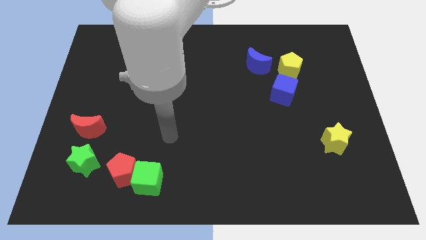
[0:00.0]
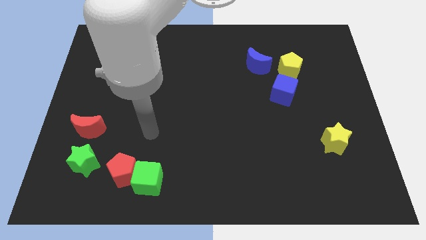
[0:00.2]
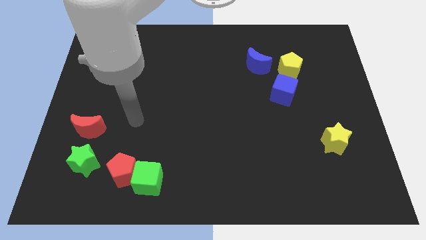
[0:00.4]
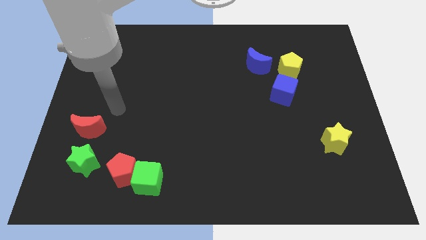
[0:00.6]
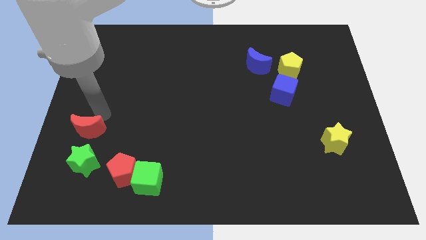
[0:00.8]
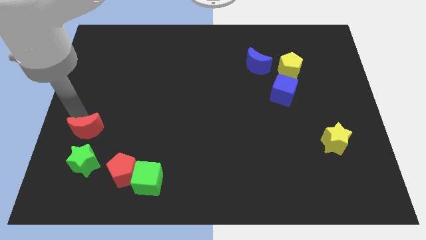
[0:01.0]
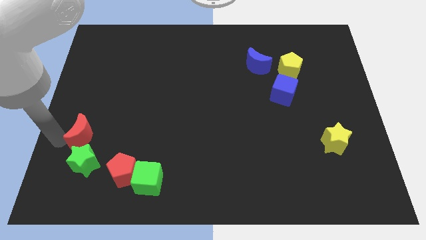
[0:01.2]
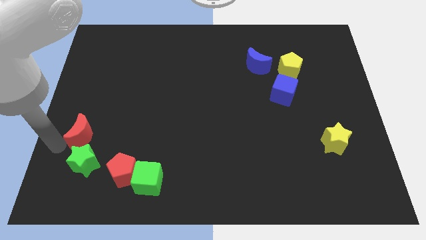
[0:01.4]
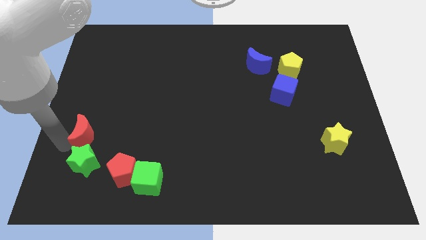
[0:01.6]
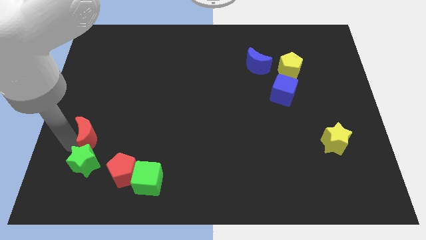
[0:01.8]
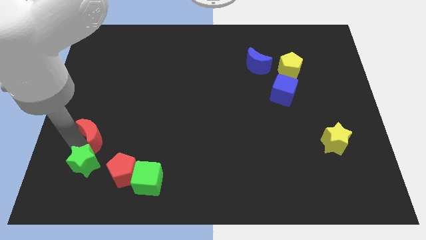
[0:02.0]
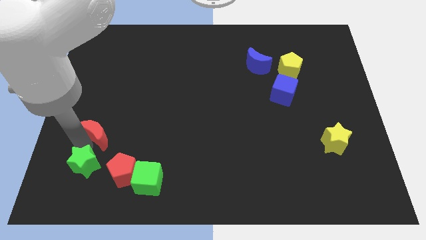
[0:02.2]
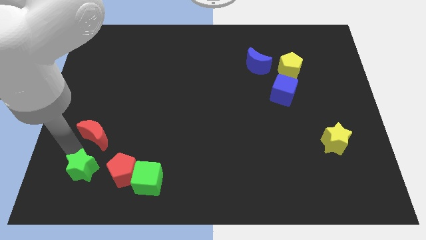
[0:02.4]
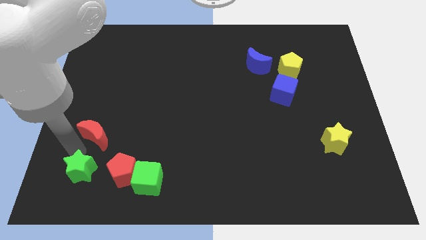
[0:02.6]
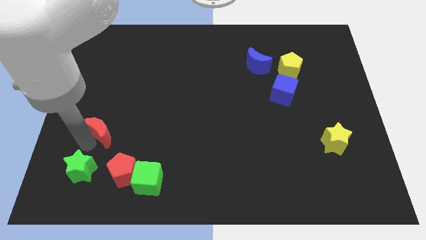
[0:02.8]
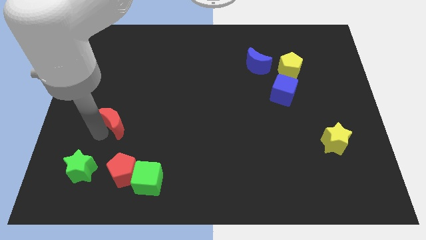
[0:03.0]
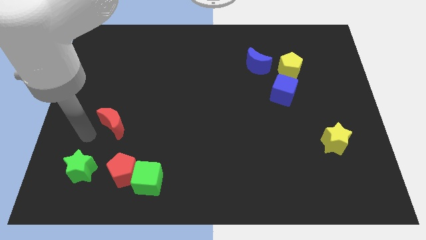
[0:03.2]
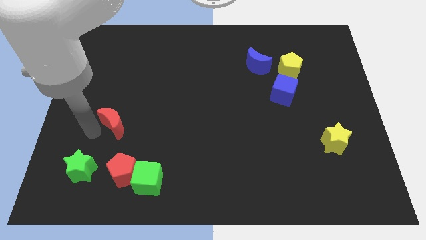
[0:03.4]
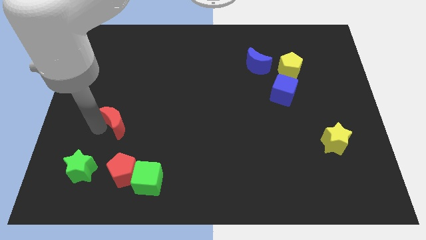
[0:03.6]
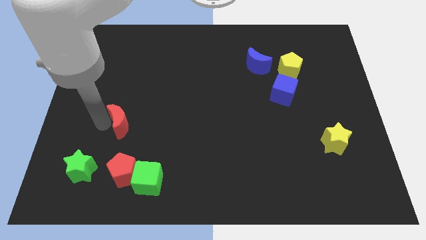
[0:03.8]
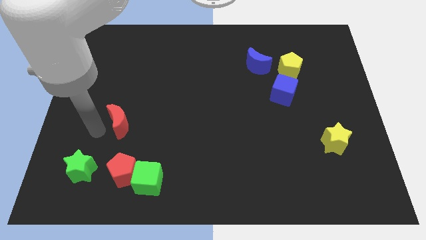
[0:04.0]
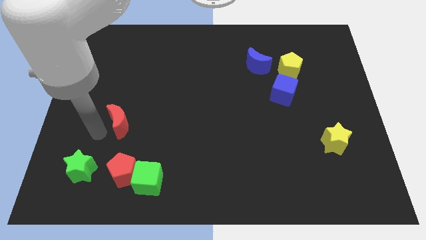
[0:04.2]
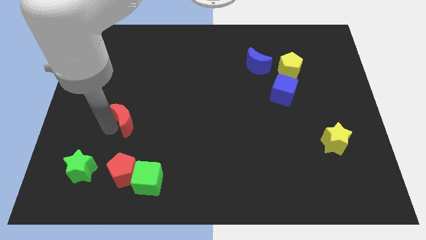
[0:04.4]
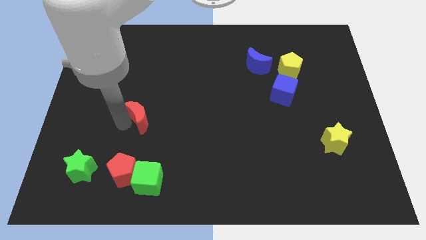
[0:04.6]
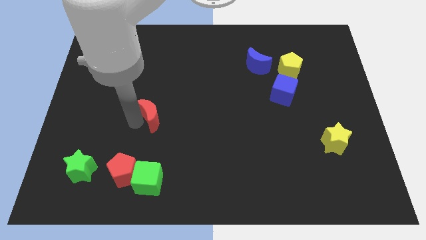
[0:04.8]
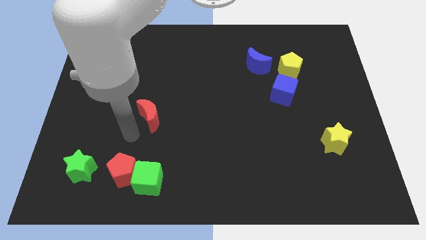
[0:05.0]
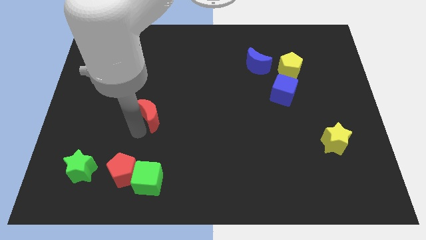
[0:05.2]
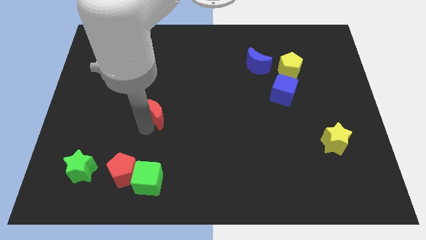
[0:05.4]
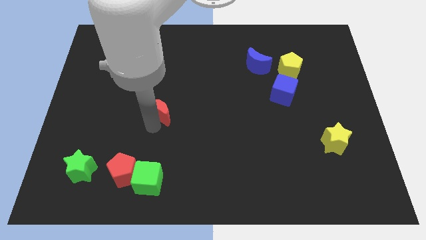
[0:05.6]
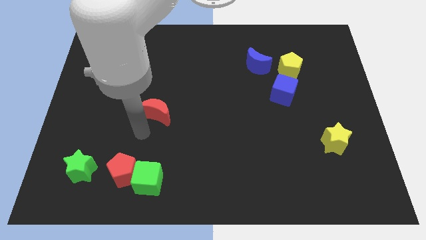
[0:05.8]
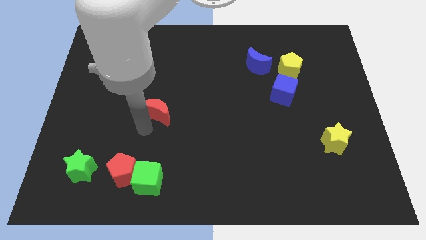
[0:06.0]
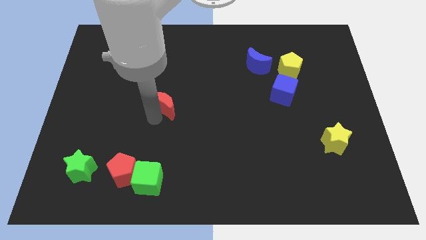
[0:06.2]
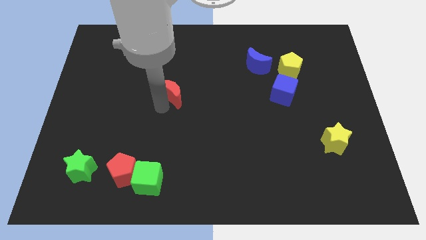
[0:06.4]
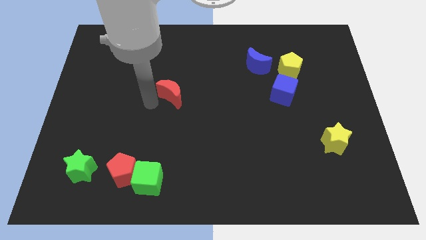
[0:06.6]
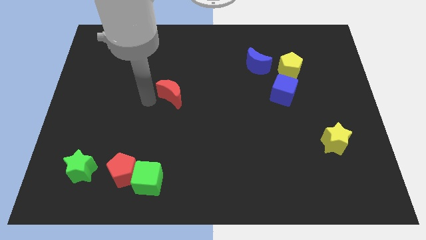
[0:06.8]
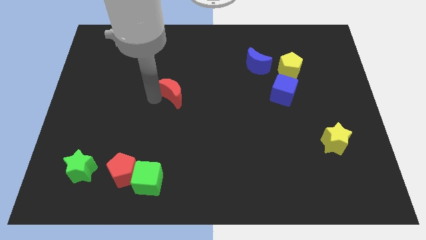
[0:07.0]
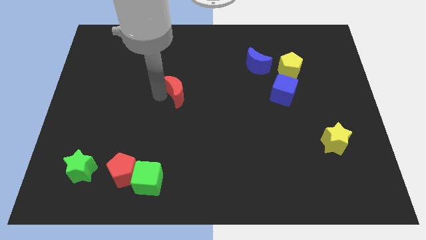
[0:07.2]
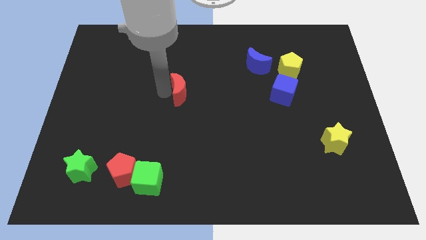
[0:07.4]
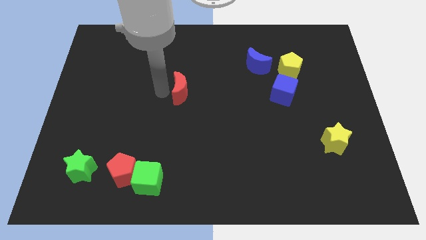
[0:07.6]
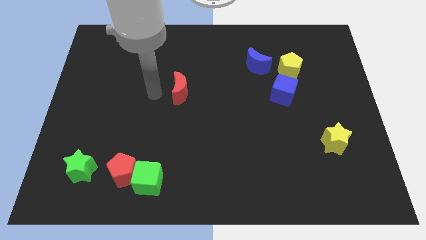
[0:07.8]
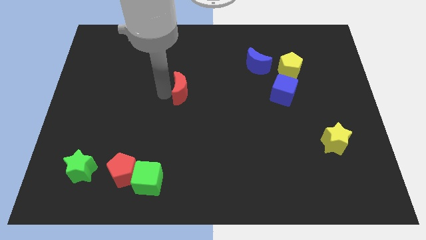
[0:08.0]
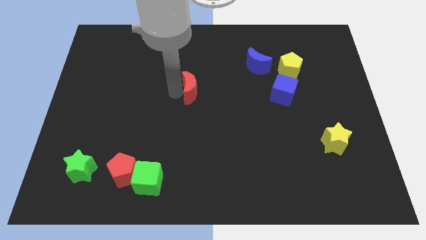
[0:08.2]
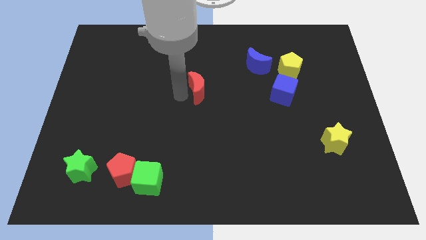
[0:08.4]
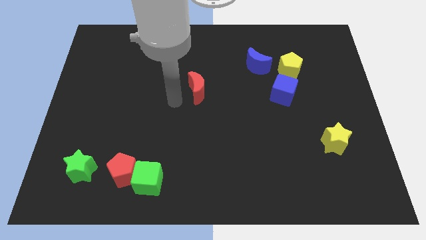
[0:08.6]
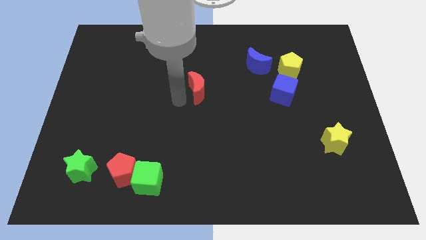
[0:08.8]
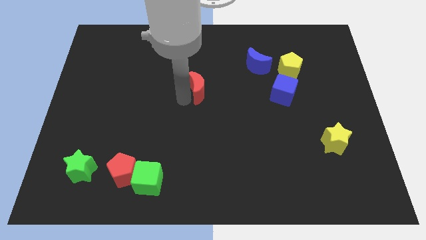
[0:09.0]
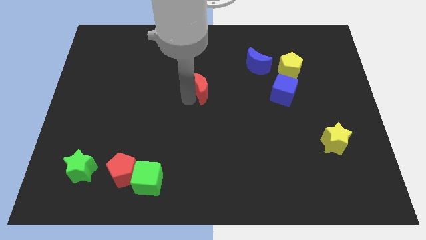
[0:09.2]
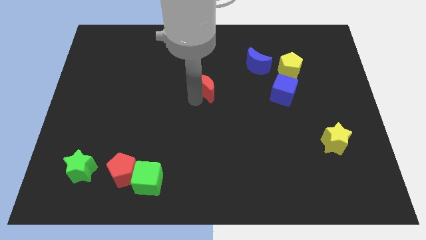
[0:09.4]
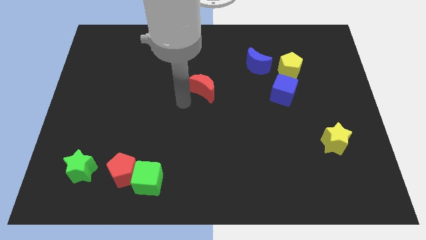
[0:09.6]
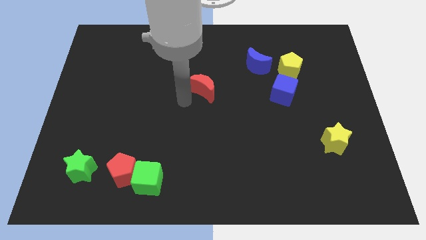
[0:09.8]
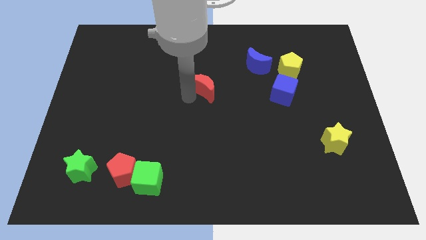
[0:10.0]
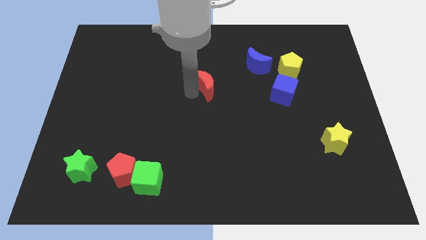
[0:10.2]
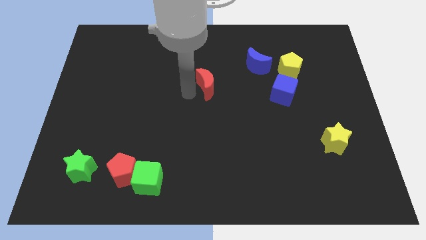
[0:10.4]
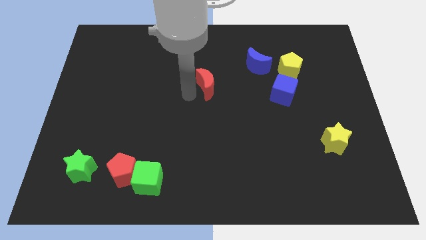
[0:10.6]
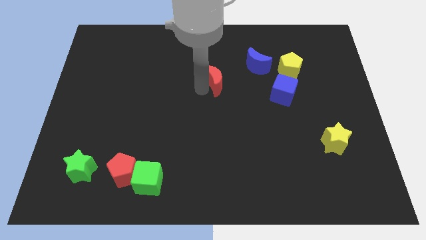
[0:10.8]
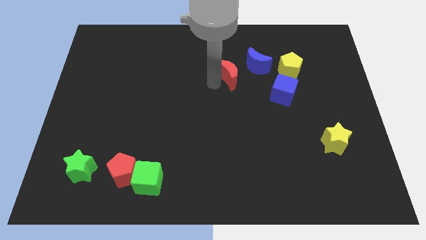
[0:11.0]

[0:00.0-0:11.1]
push the red moon to the left of the yellow pentagon
